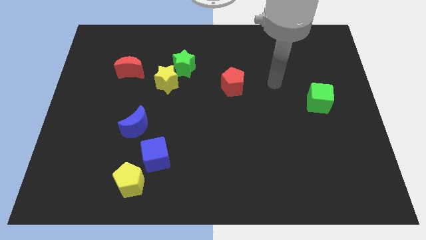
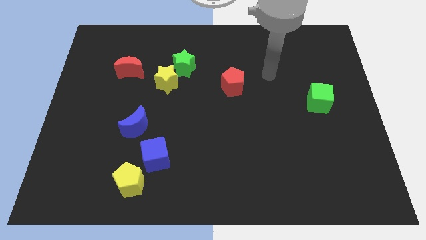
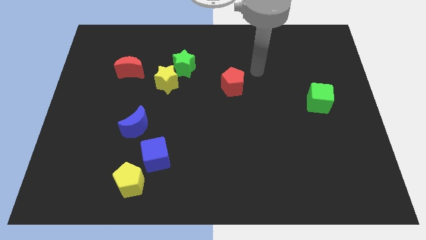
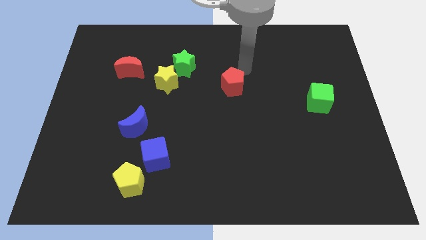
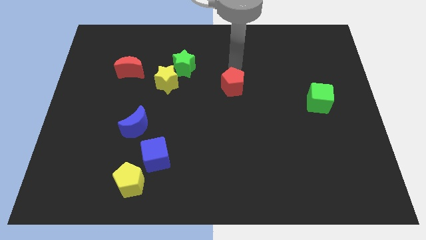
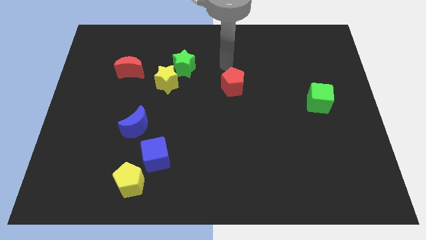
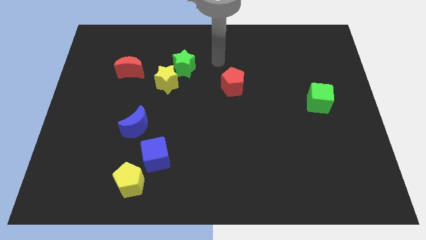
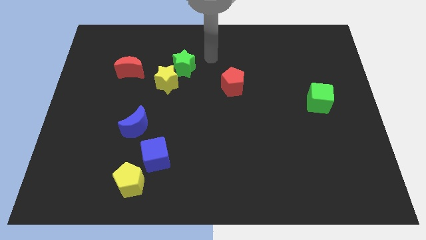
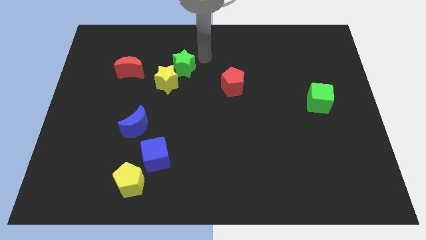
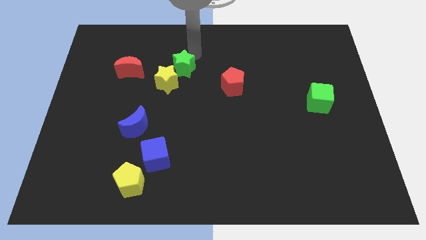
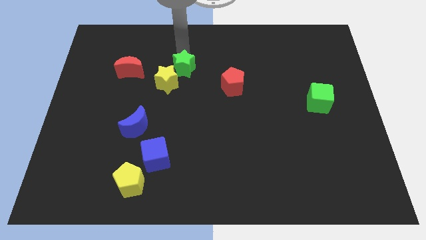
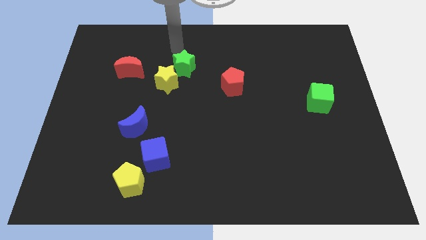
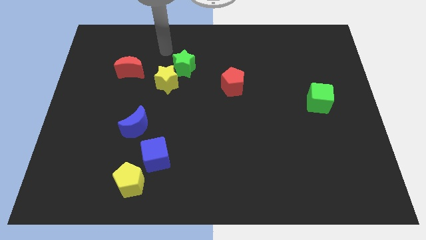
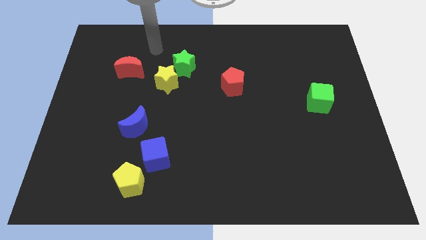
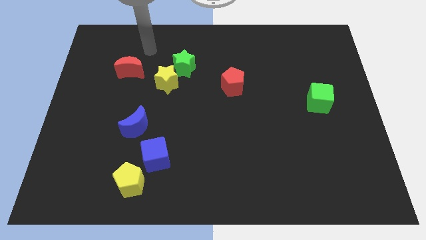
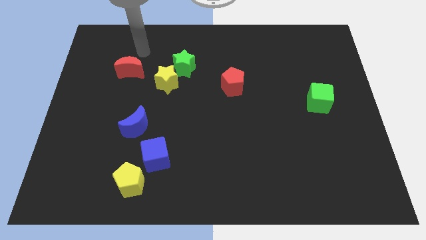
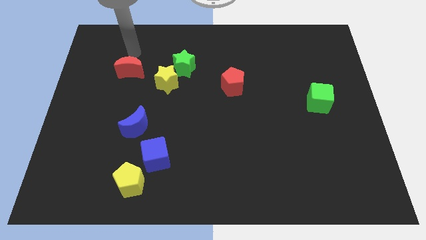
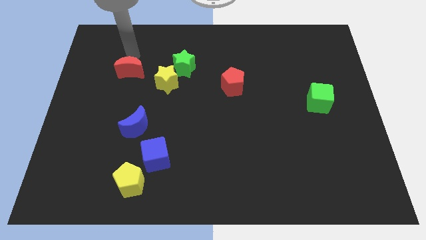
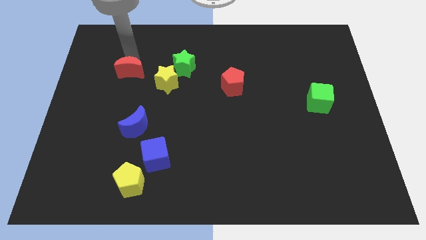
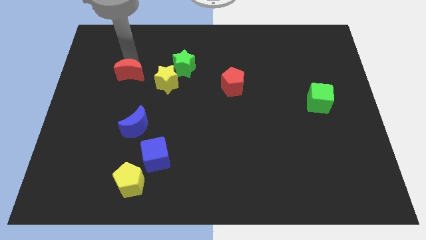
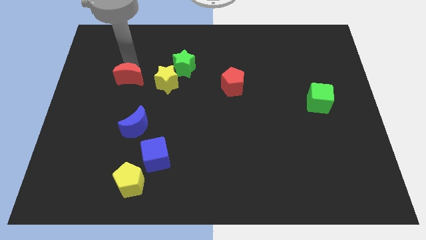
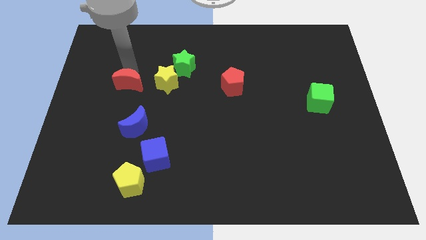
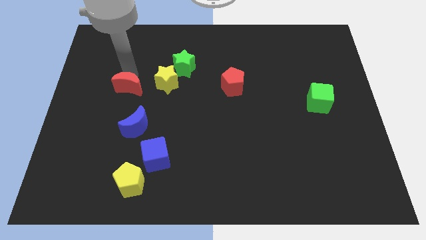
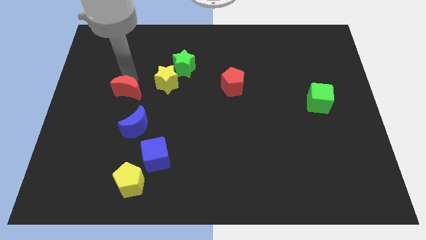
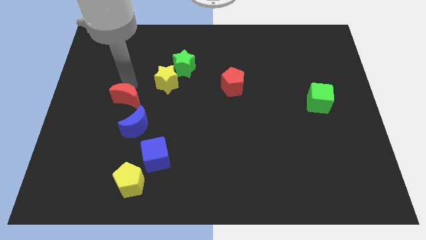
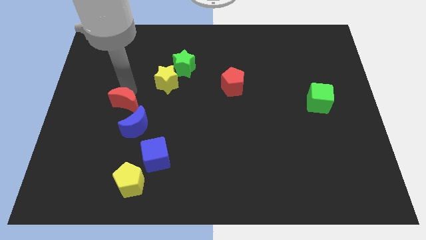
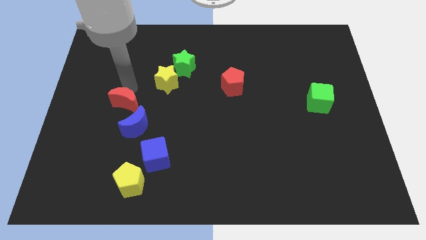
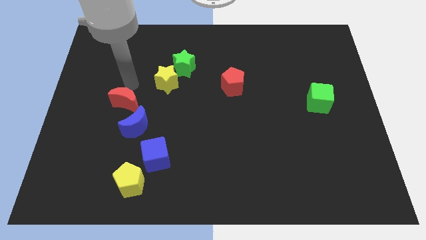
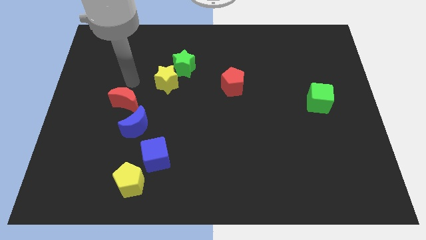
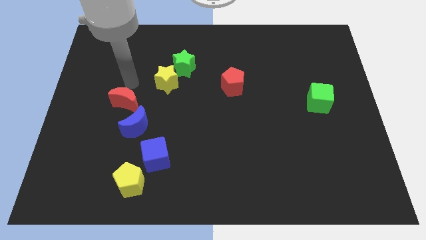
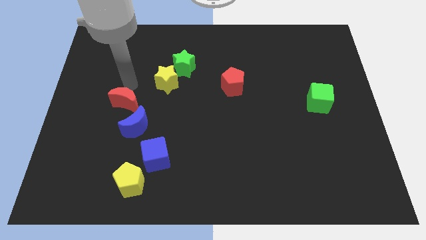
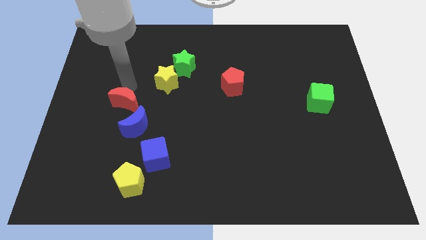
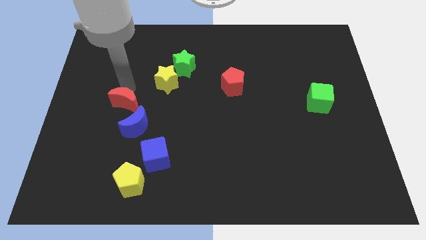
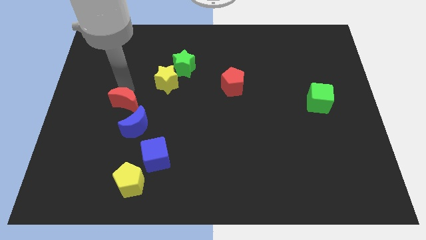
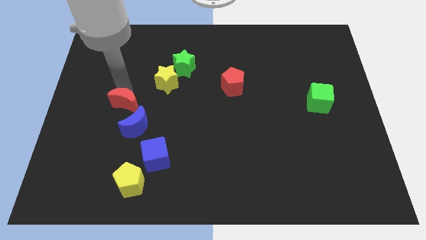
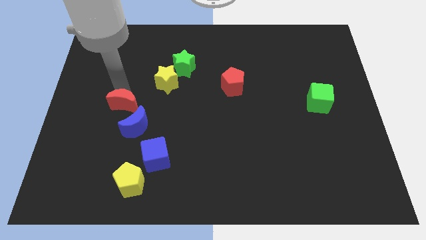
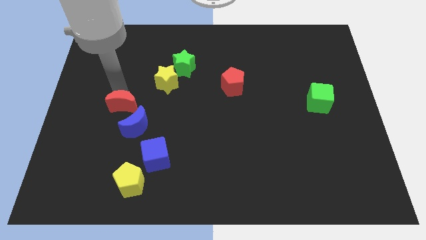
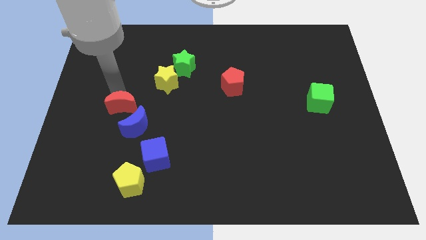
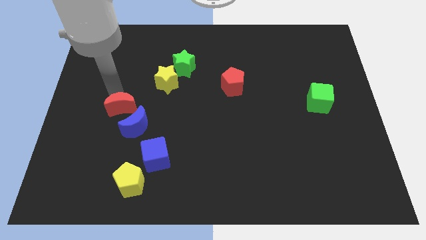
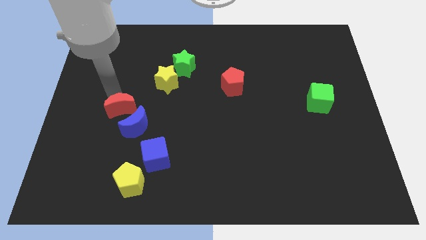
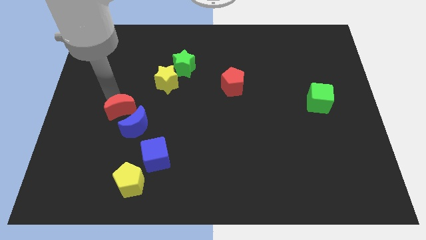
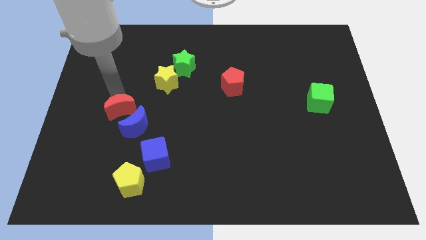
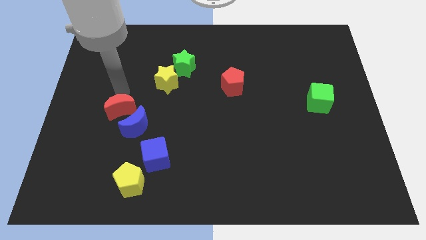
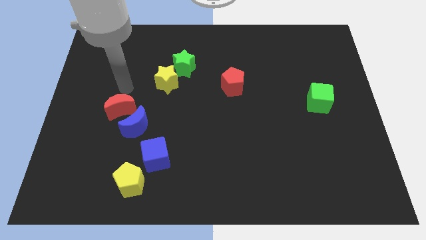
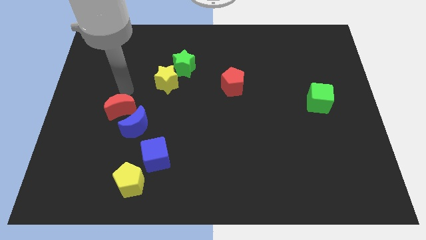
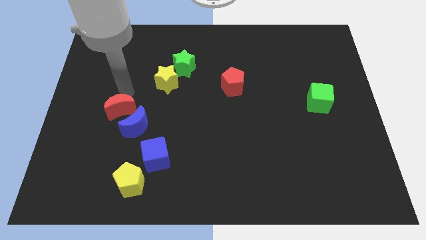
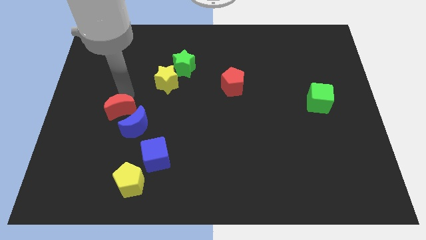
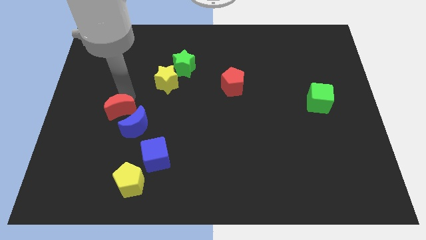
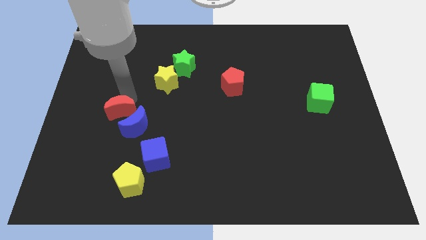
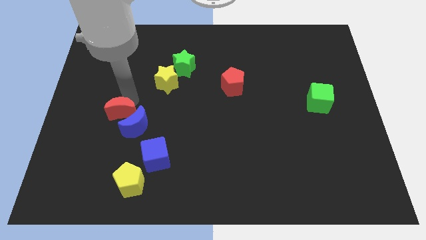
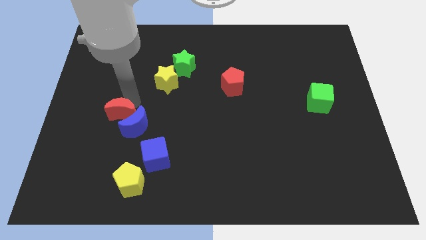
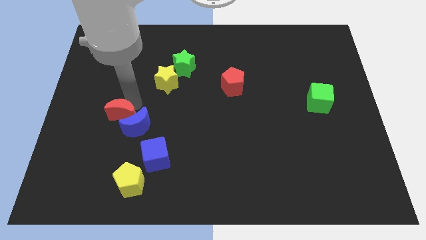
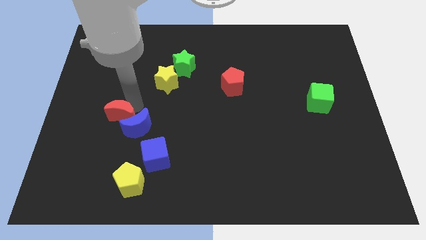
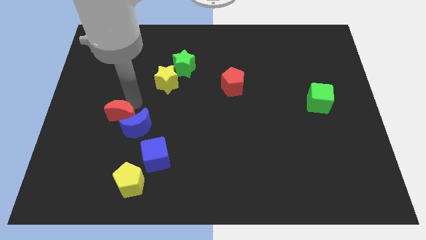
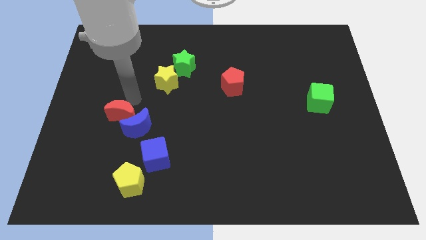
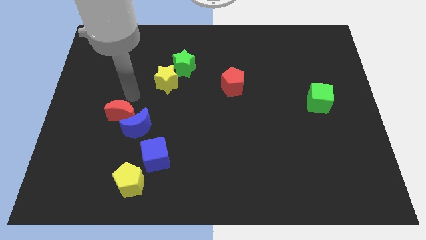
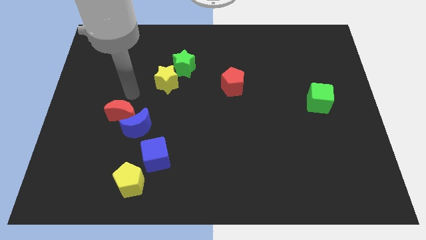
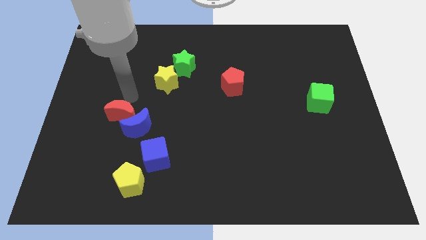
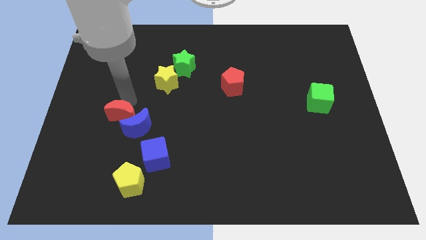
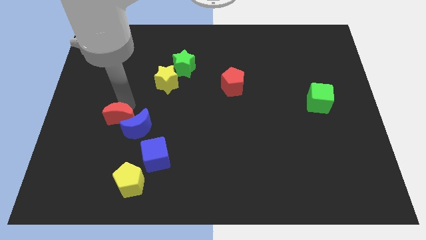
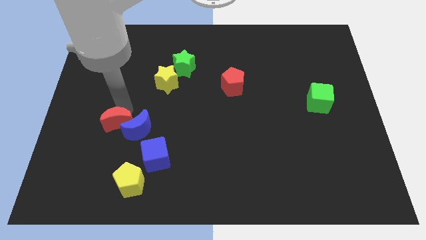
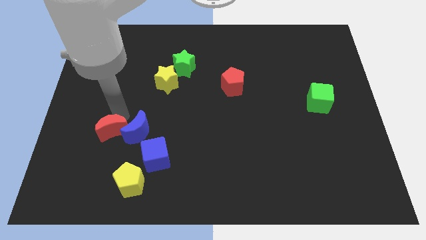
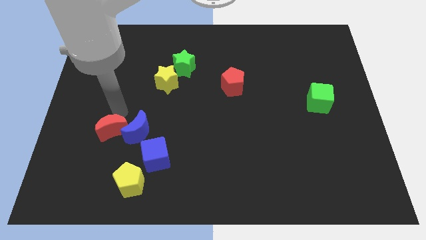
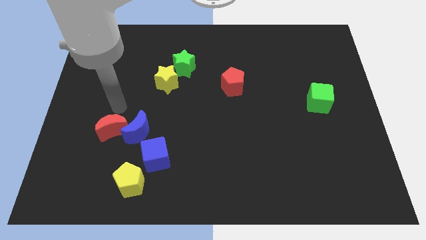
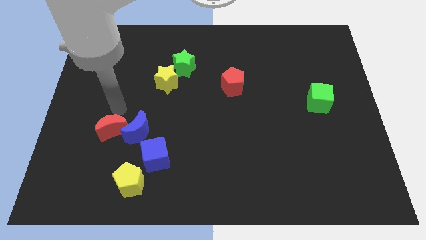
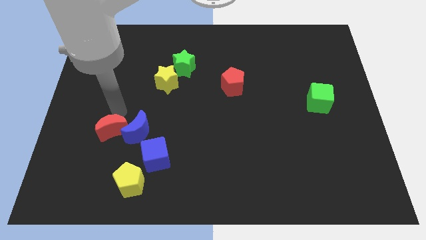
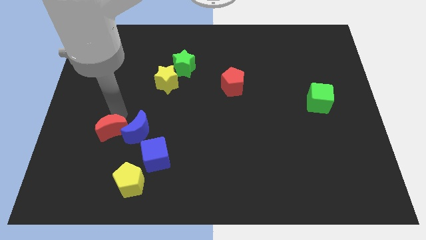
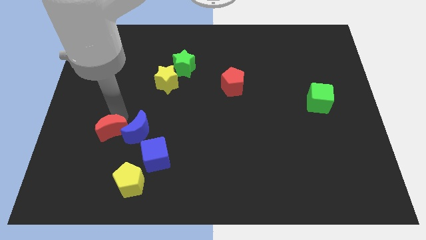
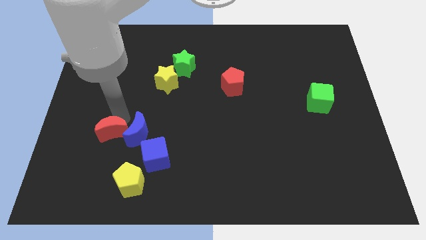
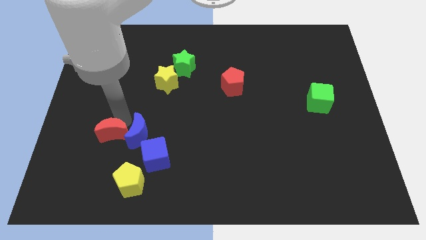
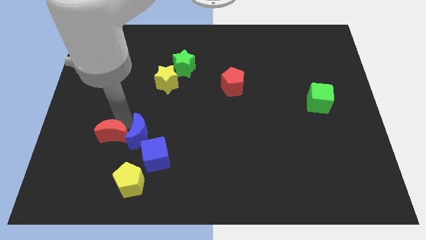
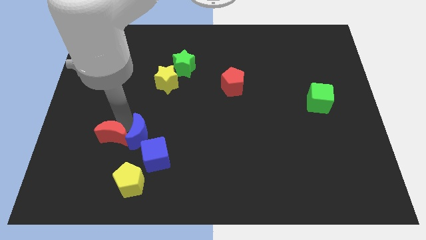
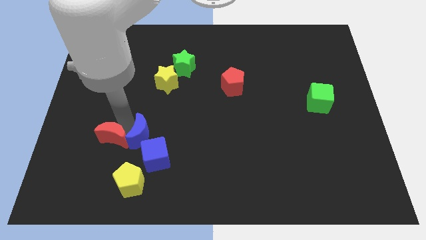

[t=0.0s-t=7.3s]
put the red moon to the left of the blue cube

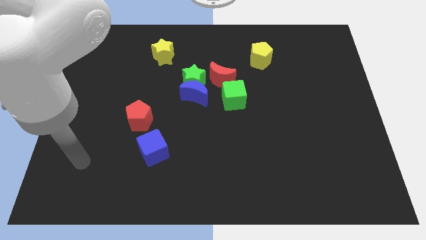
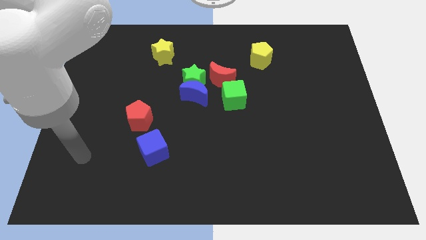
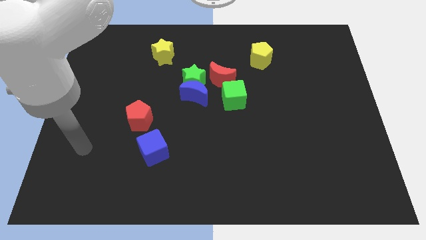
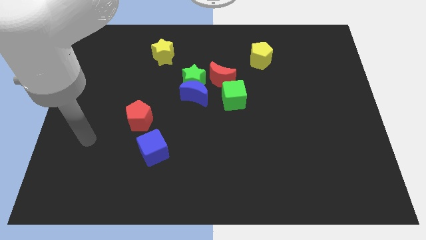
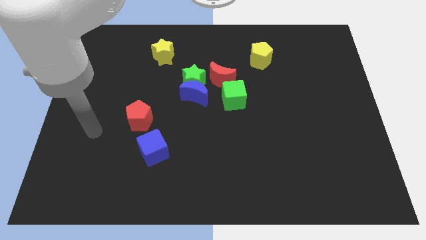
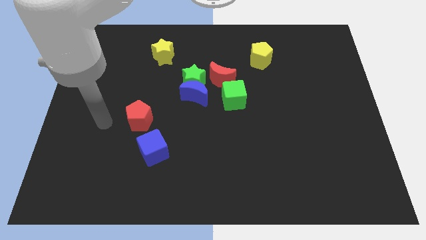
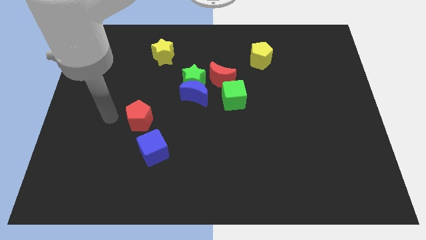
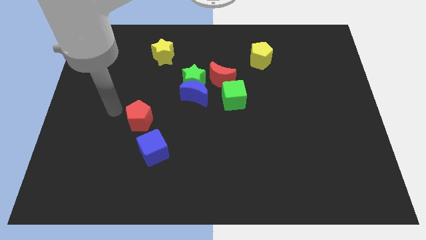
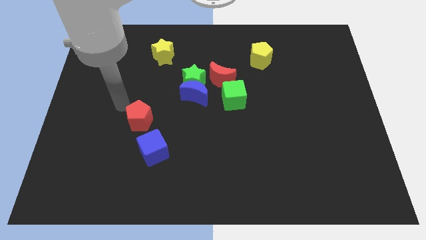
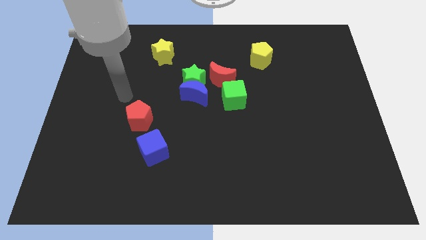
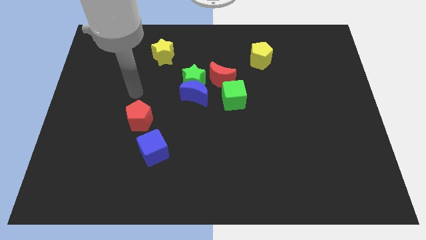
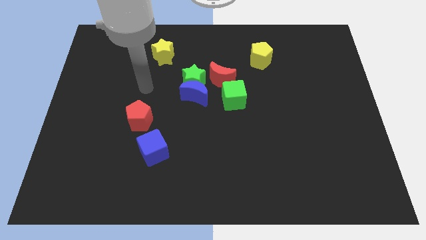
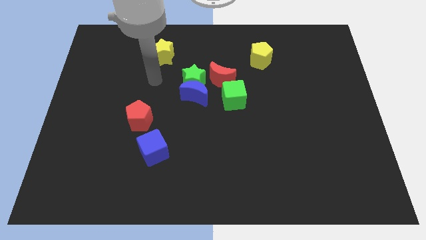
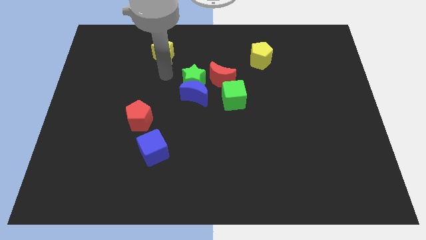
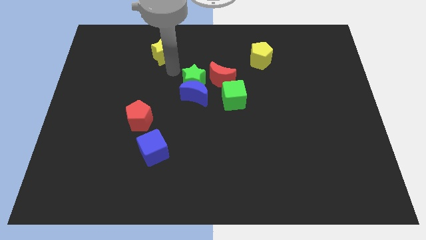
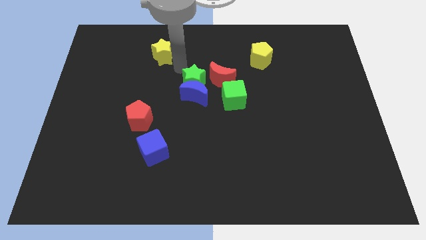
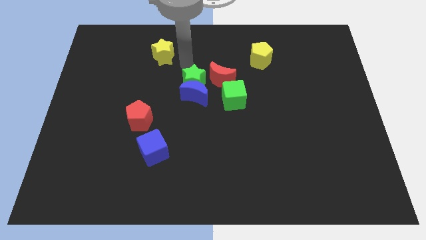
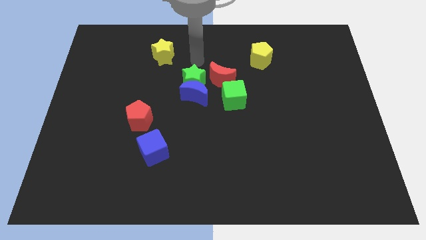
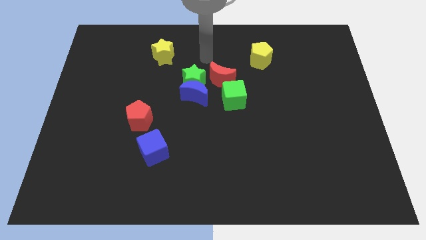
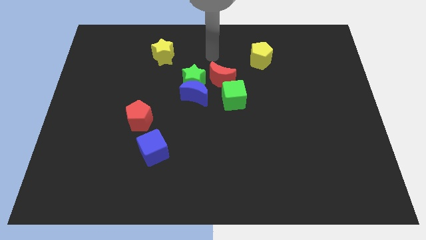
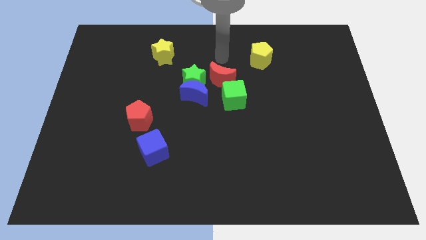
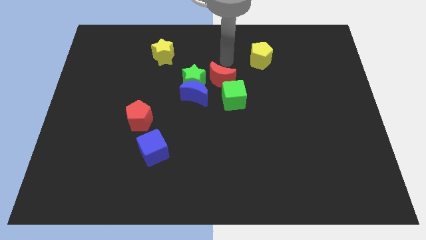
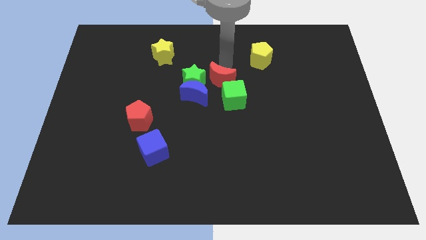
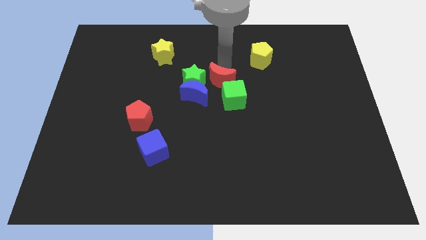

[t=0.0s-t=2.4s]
slide the red moon diagonally down and to the right of the green star
